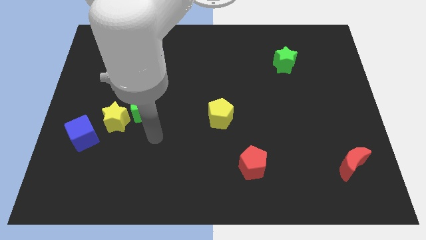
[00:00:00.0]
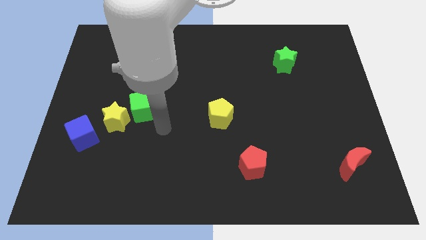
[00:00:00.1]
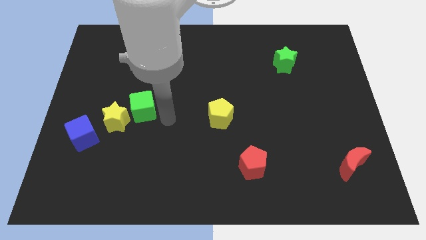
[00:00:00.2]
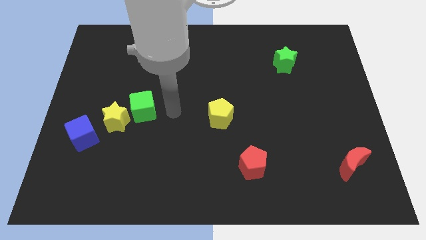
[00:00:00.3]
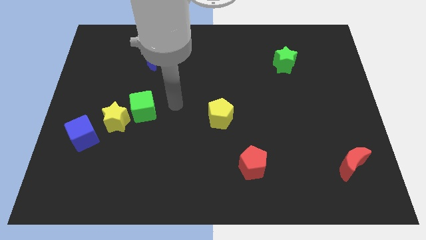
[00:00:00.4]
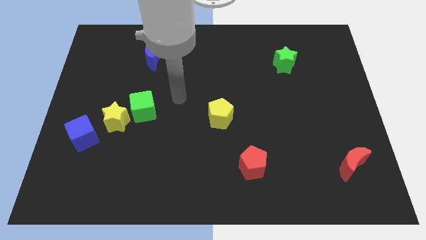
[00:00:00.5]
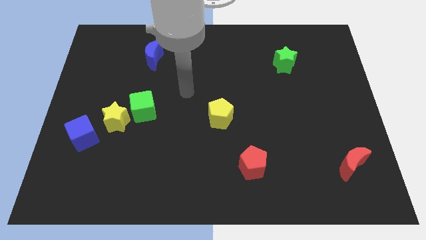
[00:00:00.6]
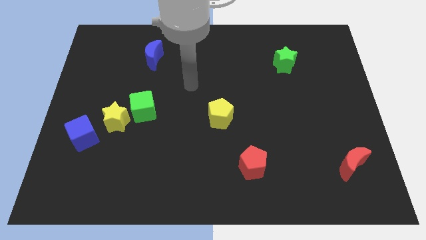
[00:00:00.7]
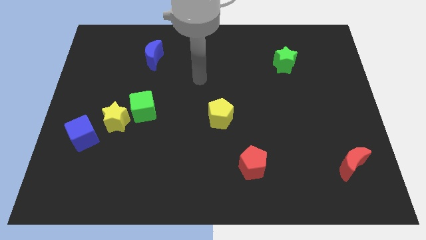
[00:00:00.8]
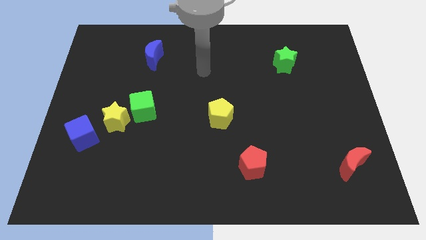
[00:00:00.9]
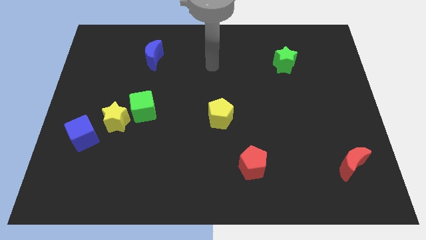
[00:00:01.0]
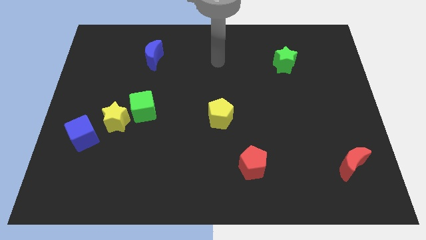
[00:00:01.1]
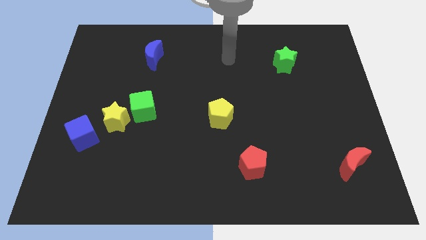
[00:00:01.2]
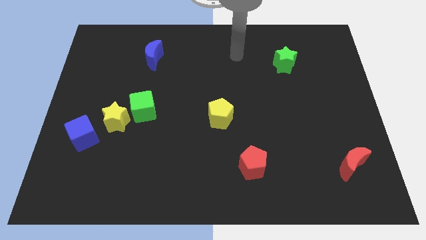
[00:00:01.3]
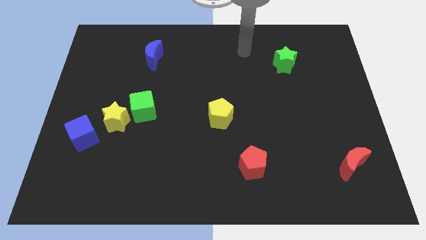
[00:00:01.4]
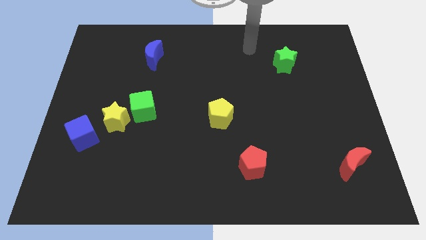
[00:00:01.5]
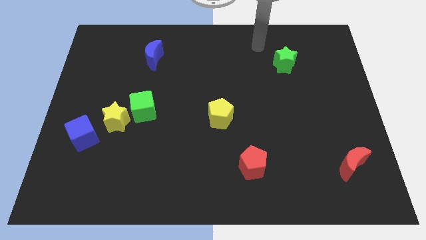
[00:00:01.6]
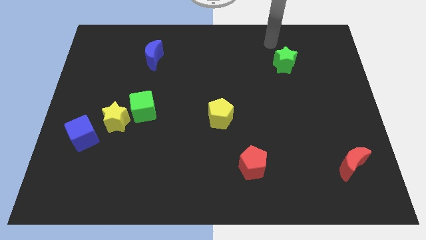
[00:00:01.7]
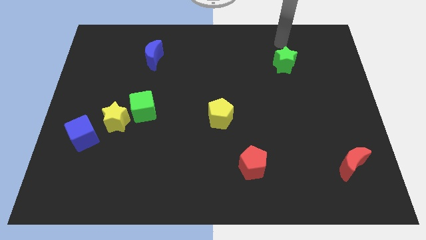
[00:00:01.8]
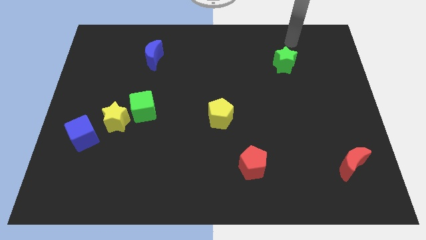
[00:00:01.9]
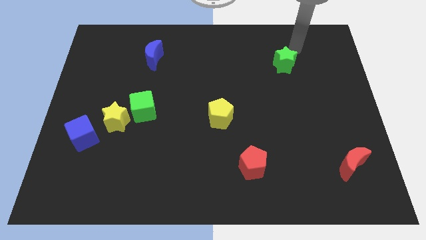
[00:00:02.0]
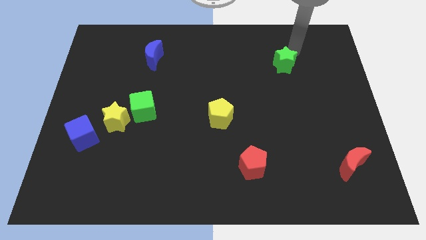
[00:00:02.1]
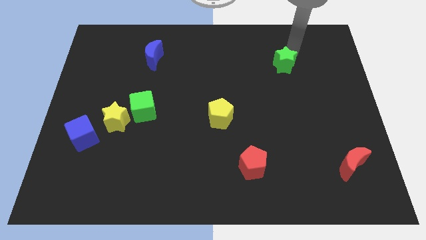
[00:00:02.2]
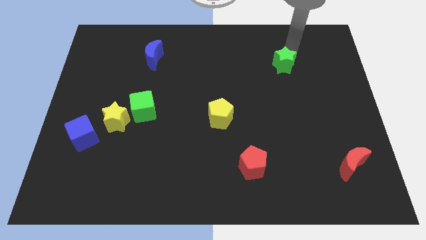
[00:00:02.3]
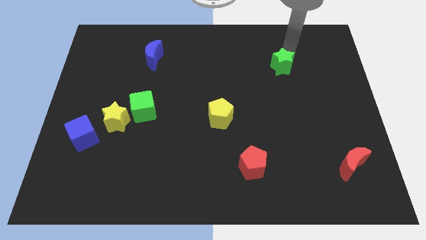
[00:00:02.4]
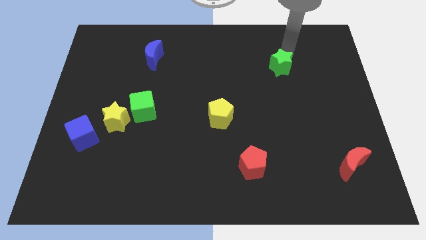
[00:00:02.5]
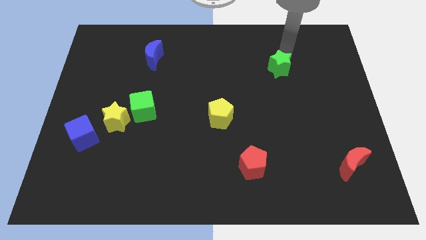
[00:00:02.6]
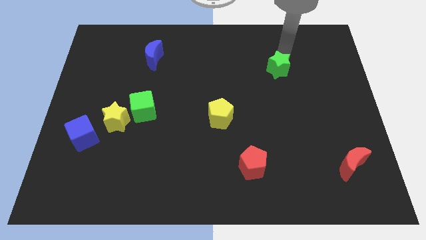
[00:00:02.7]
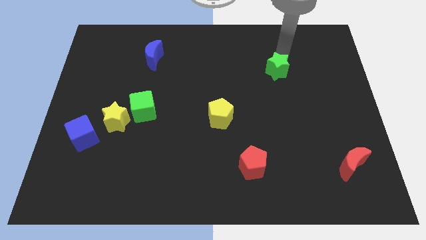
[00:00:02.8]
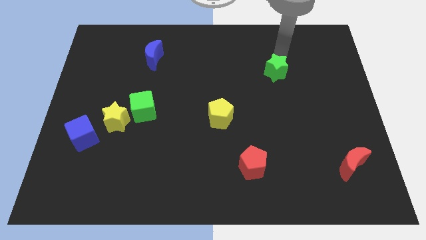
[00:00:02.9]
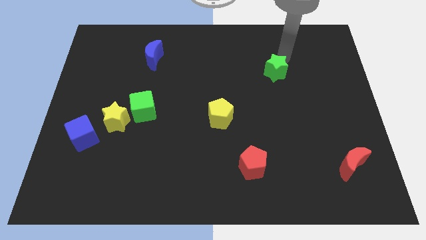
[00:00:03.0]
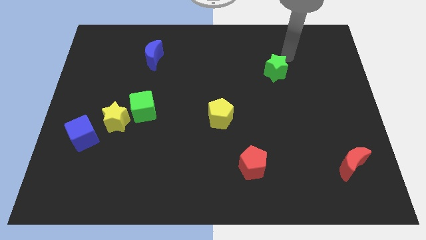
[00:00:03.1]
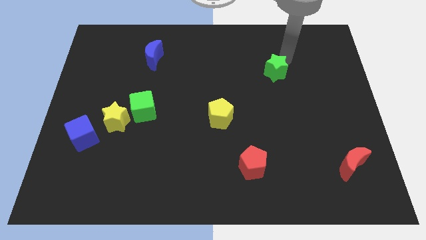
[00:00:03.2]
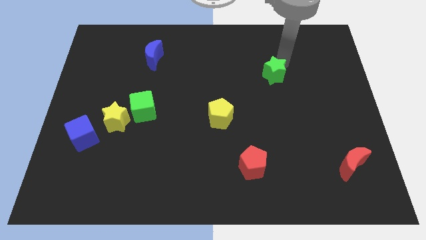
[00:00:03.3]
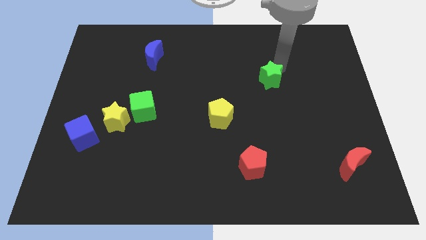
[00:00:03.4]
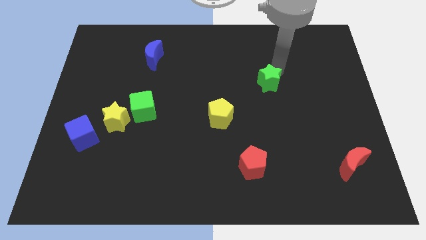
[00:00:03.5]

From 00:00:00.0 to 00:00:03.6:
move the green star diagonally down and left a little

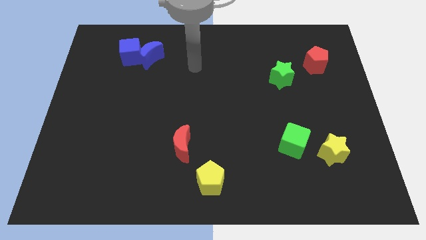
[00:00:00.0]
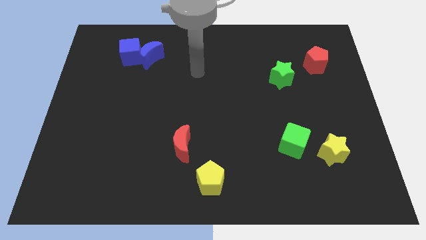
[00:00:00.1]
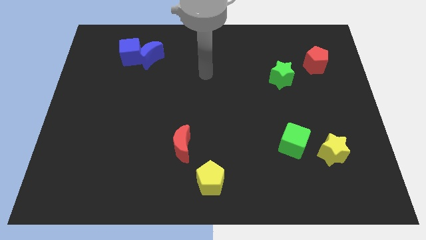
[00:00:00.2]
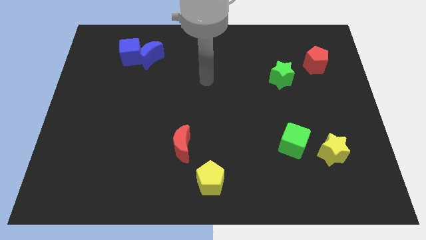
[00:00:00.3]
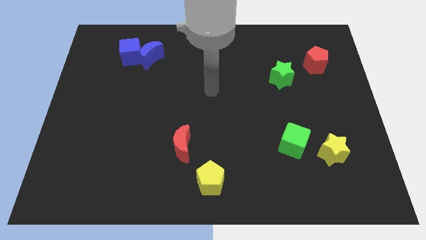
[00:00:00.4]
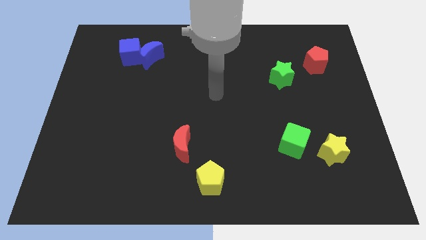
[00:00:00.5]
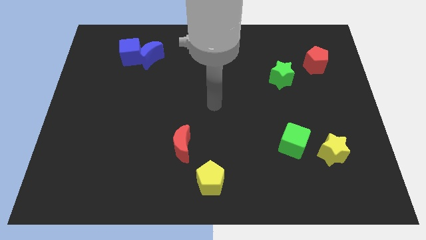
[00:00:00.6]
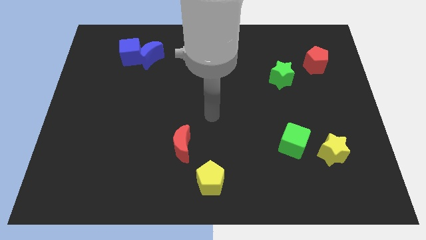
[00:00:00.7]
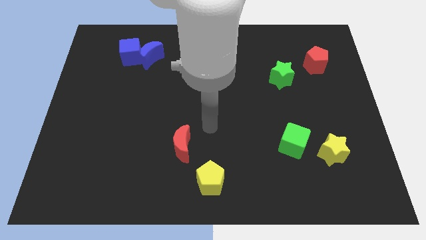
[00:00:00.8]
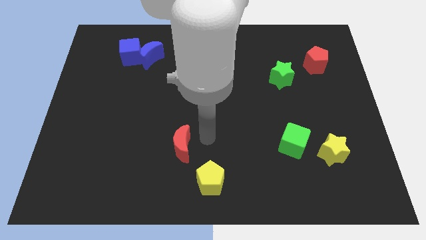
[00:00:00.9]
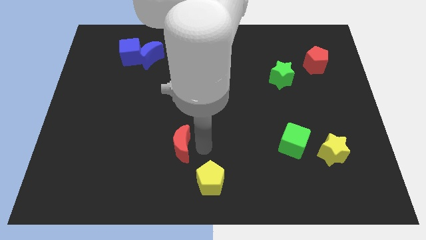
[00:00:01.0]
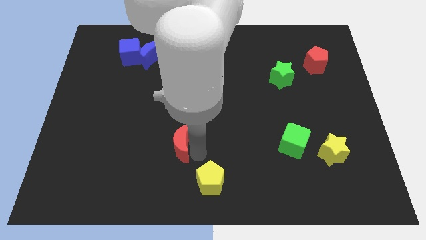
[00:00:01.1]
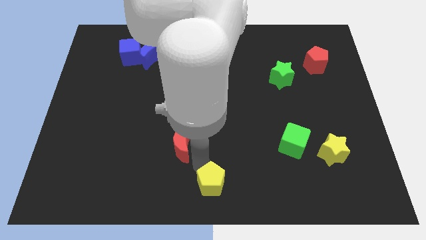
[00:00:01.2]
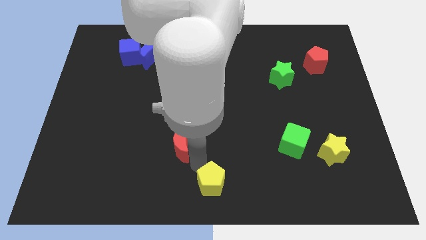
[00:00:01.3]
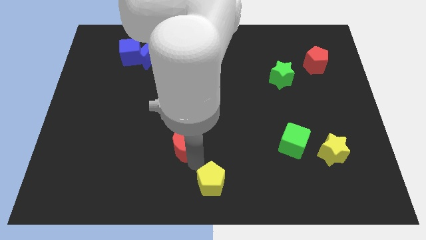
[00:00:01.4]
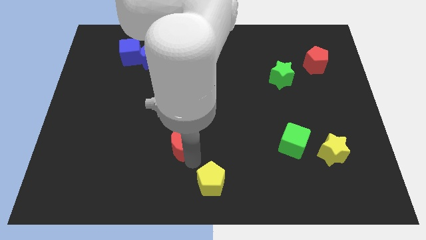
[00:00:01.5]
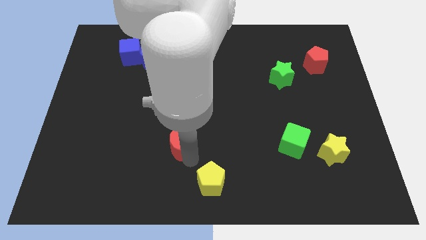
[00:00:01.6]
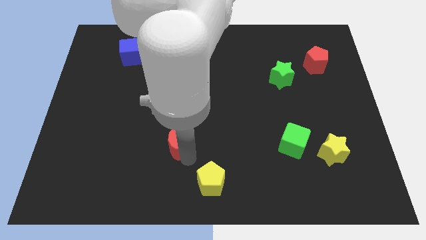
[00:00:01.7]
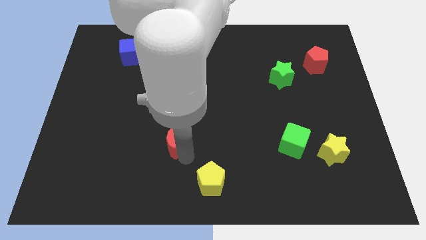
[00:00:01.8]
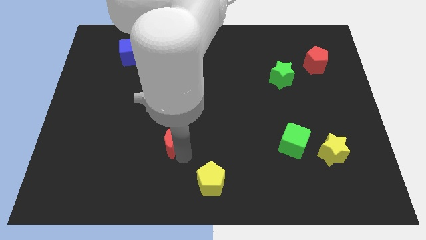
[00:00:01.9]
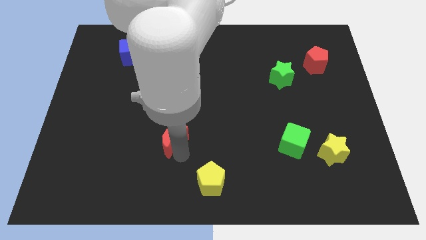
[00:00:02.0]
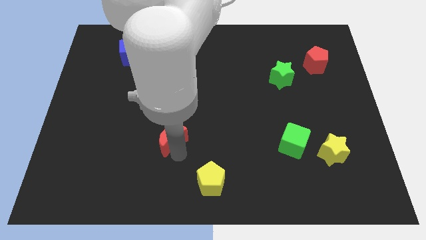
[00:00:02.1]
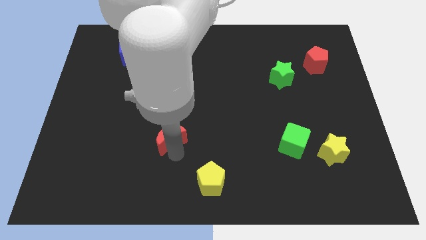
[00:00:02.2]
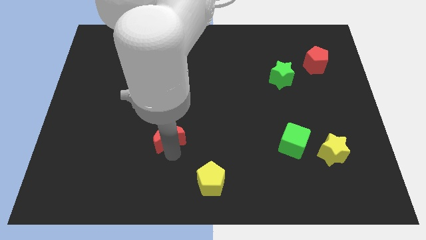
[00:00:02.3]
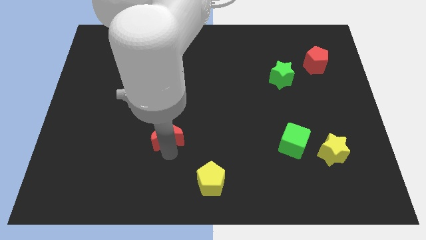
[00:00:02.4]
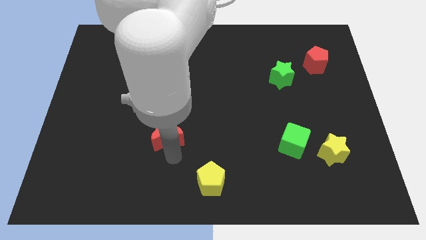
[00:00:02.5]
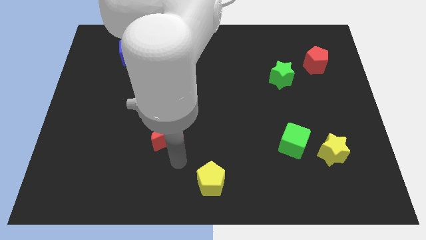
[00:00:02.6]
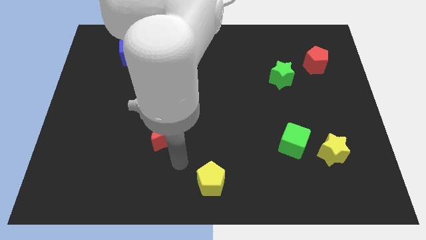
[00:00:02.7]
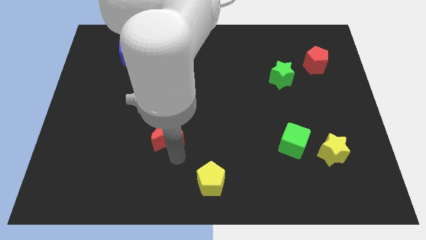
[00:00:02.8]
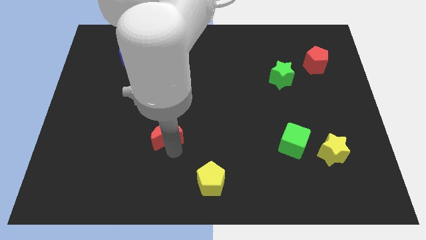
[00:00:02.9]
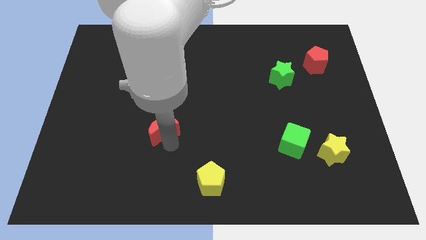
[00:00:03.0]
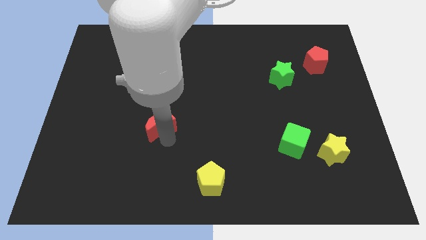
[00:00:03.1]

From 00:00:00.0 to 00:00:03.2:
push the red moon somewhat upwards and to the left

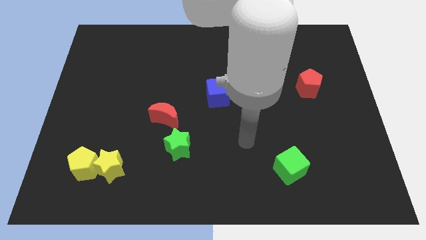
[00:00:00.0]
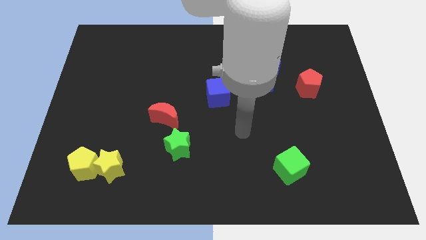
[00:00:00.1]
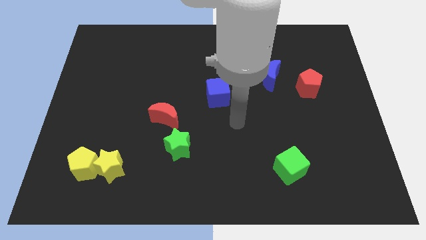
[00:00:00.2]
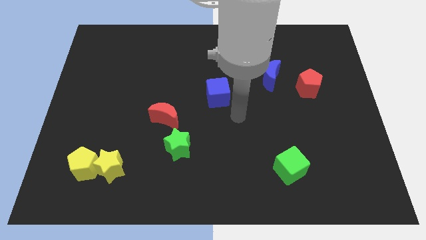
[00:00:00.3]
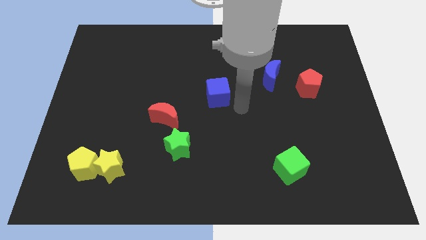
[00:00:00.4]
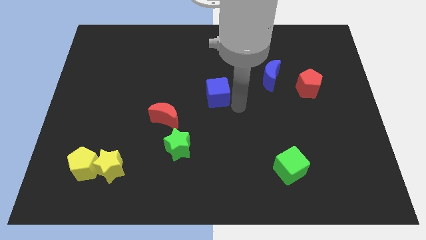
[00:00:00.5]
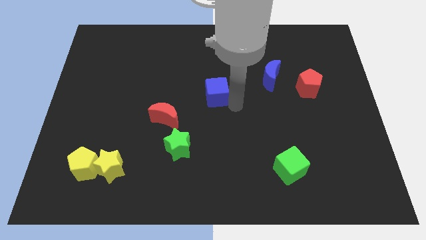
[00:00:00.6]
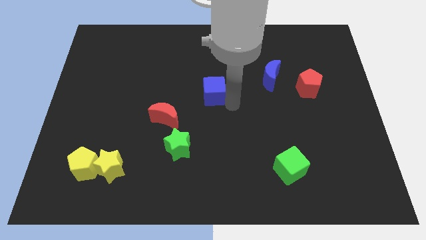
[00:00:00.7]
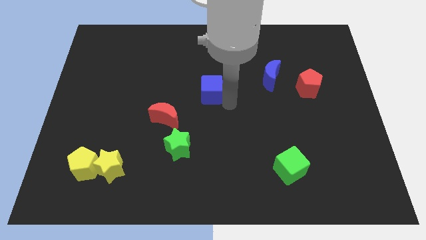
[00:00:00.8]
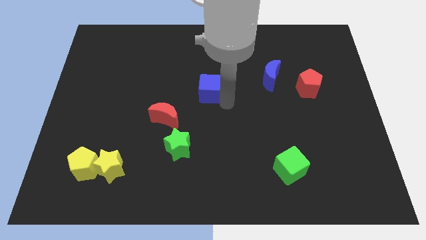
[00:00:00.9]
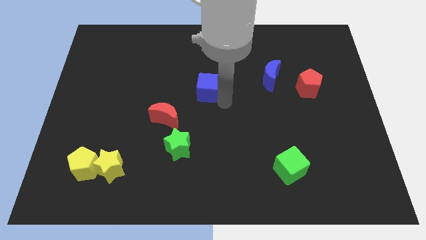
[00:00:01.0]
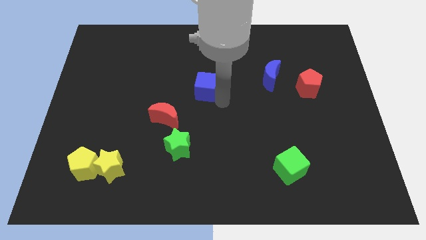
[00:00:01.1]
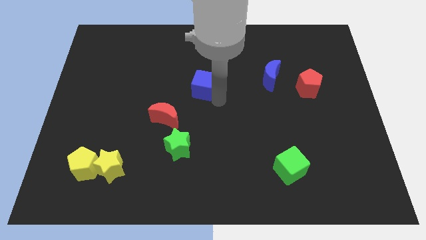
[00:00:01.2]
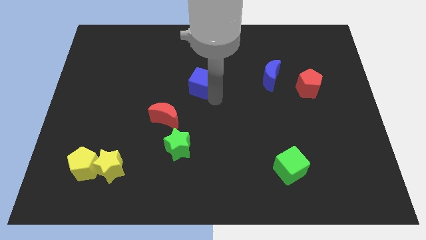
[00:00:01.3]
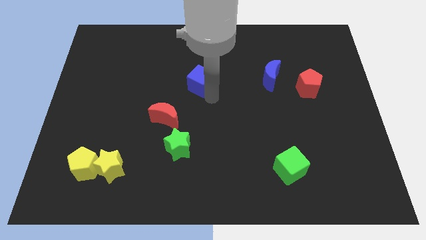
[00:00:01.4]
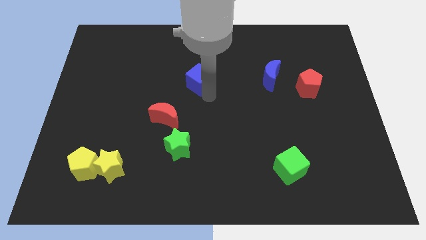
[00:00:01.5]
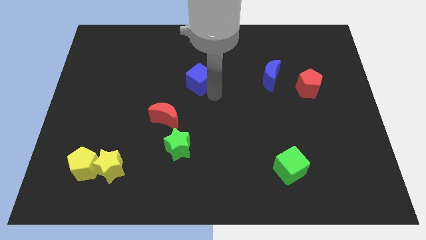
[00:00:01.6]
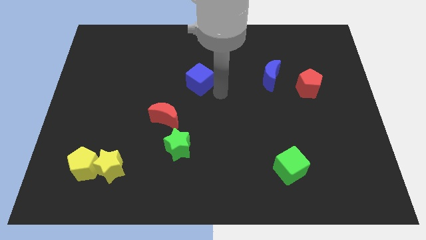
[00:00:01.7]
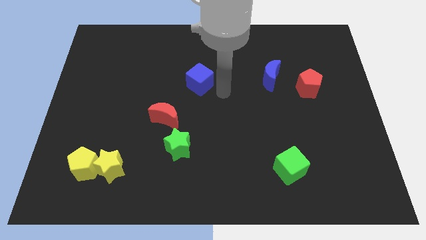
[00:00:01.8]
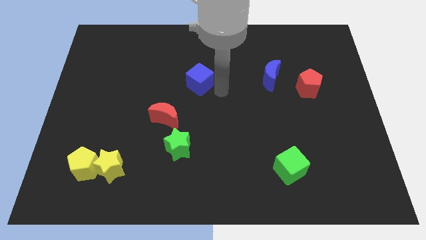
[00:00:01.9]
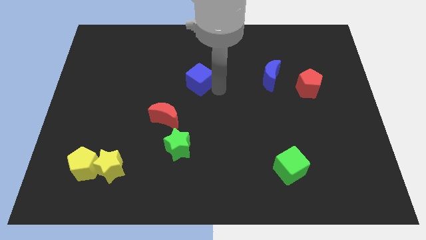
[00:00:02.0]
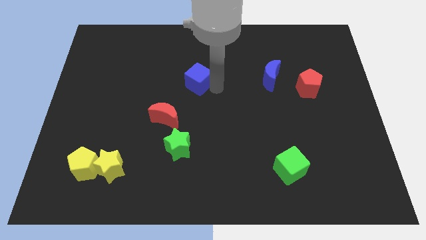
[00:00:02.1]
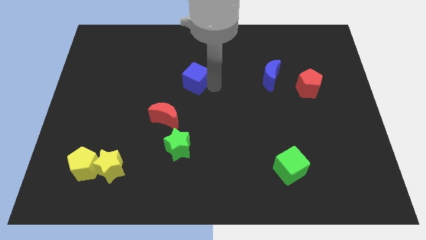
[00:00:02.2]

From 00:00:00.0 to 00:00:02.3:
slide the blue cube up and to the left diagonally a little bit
